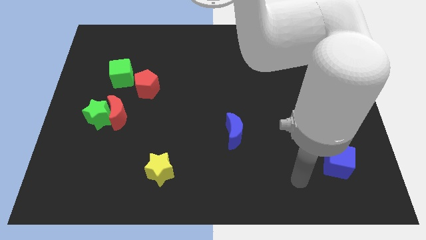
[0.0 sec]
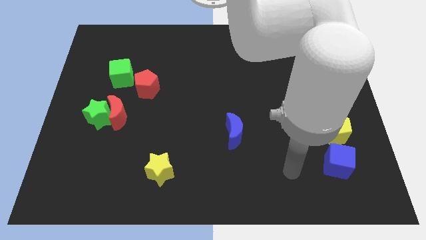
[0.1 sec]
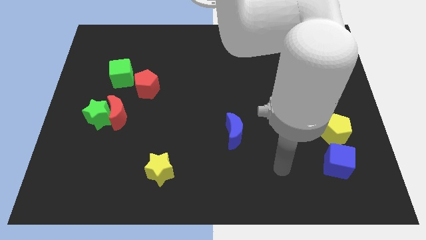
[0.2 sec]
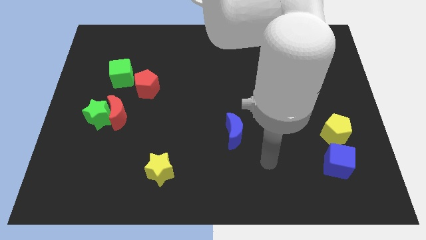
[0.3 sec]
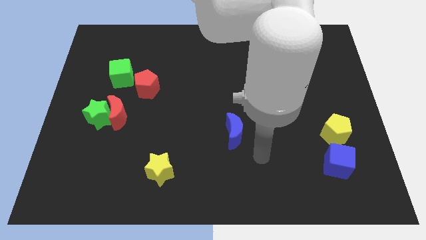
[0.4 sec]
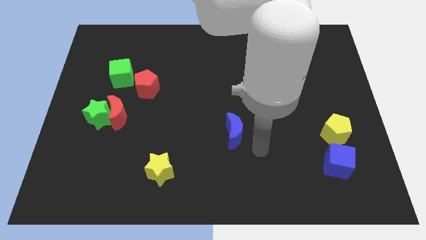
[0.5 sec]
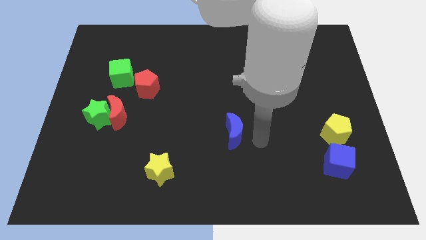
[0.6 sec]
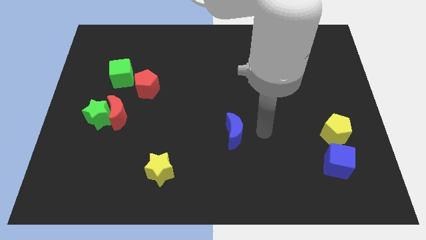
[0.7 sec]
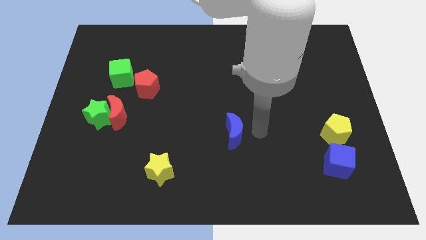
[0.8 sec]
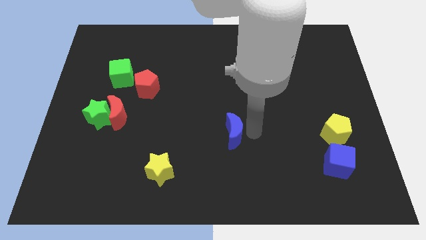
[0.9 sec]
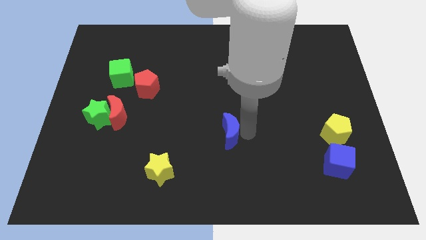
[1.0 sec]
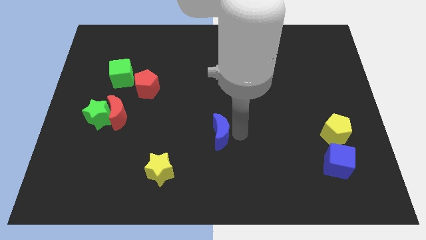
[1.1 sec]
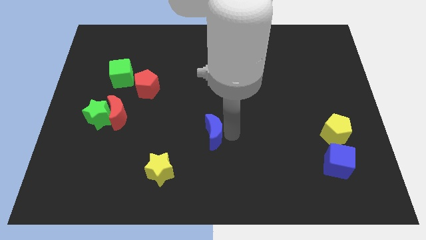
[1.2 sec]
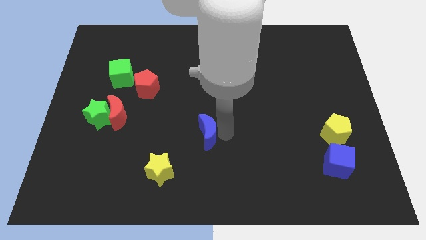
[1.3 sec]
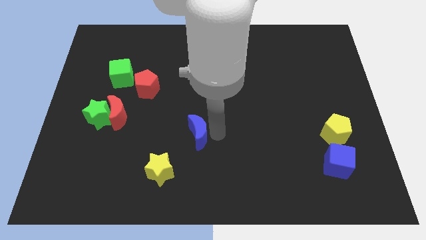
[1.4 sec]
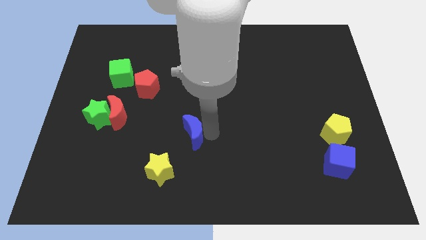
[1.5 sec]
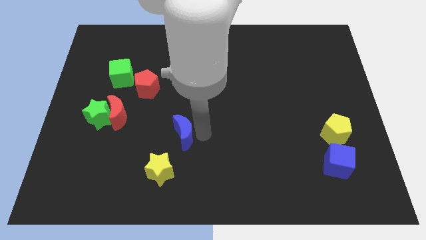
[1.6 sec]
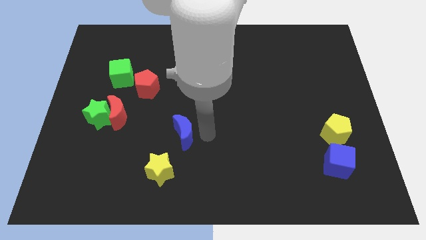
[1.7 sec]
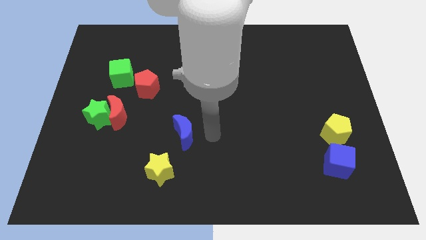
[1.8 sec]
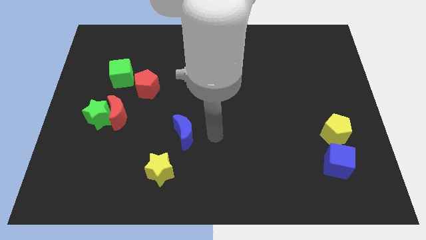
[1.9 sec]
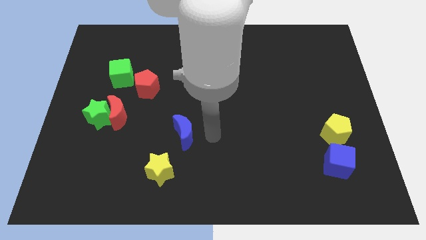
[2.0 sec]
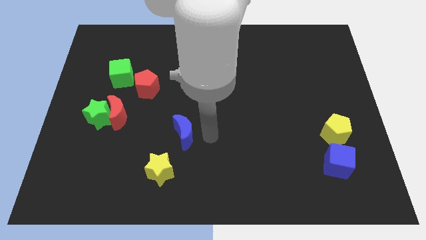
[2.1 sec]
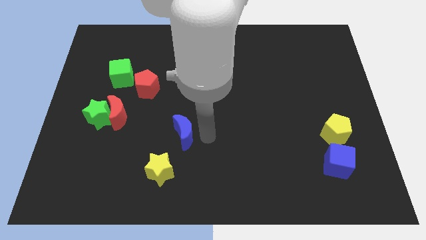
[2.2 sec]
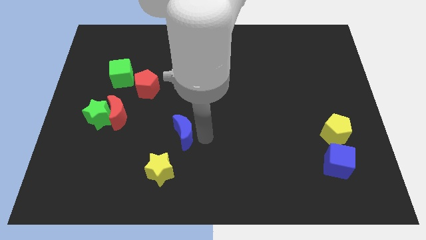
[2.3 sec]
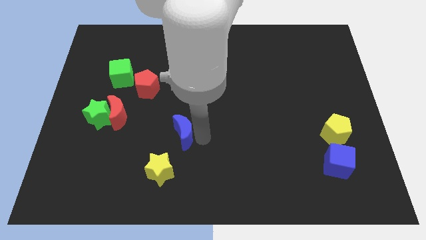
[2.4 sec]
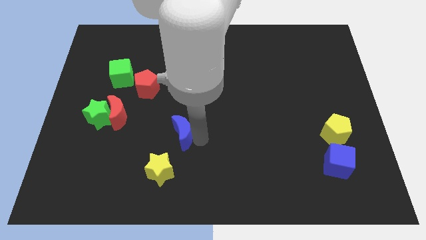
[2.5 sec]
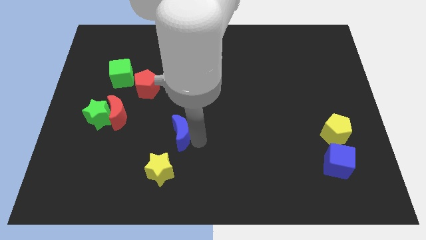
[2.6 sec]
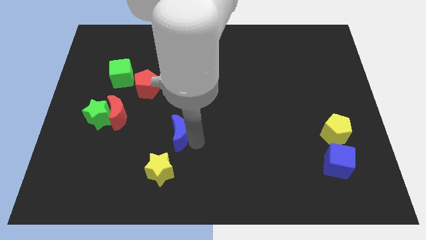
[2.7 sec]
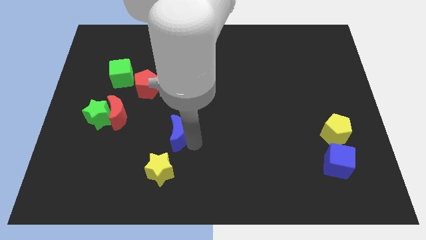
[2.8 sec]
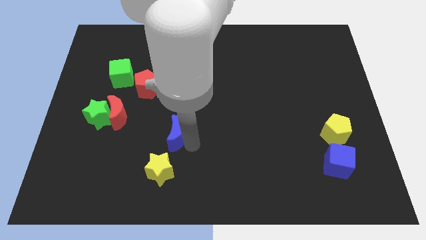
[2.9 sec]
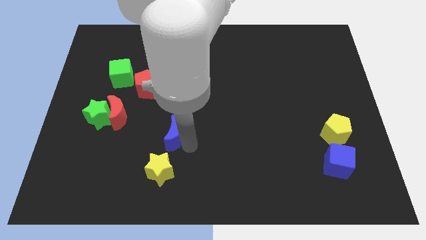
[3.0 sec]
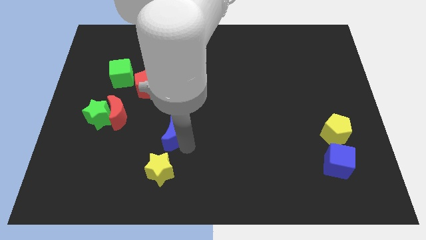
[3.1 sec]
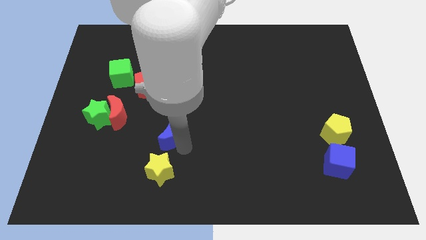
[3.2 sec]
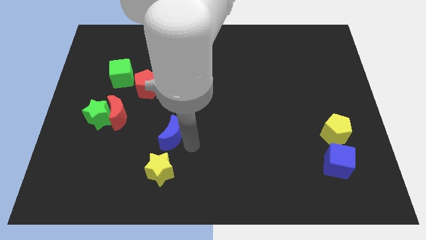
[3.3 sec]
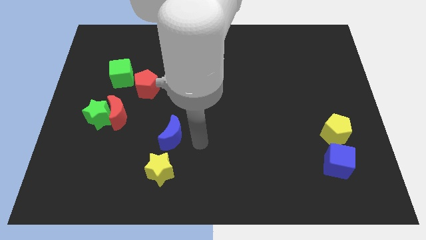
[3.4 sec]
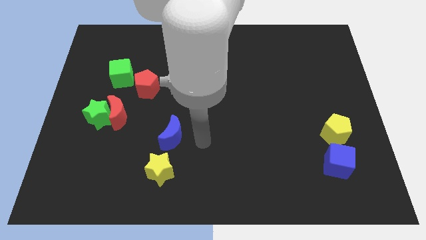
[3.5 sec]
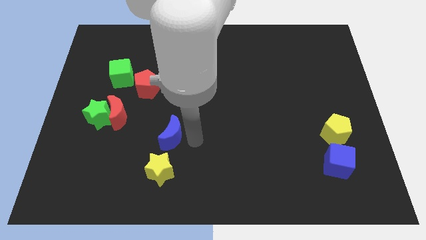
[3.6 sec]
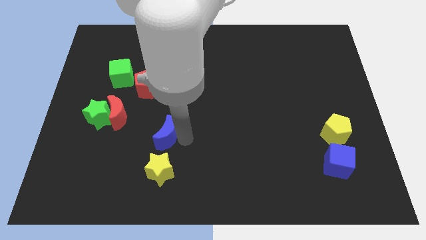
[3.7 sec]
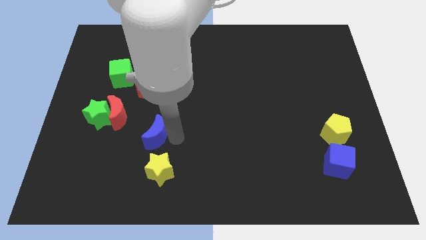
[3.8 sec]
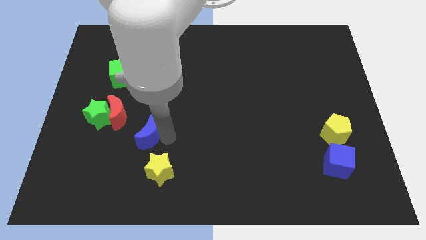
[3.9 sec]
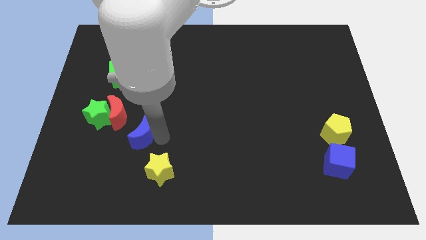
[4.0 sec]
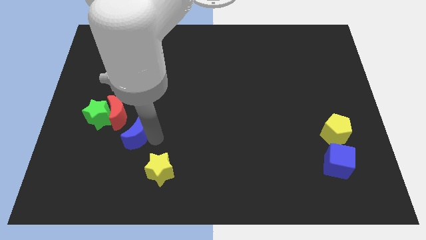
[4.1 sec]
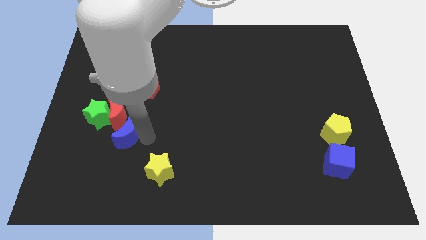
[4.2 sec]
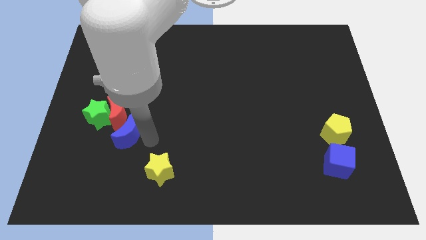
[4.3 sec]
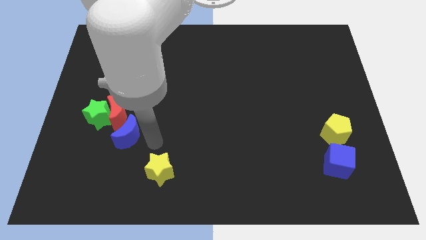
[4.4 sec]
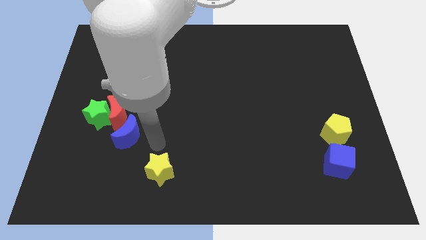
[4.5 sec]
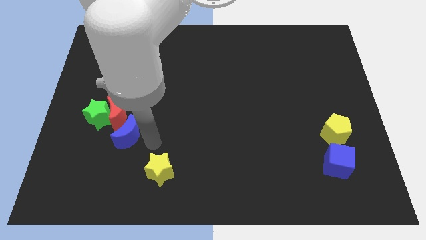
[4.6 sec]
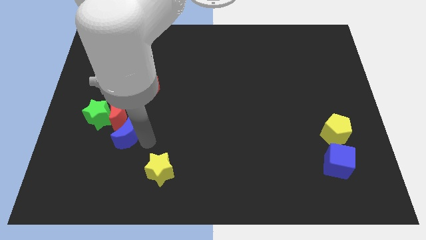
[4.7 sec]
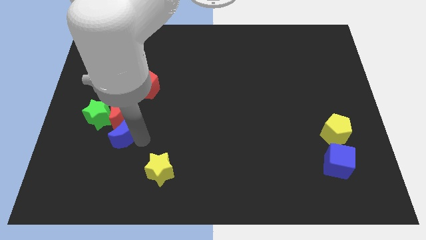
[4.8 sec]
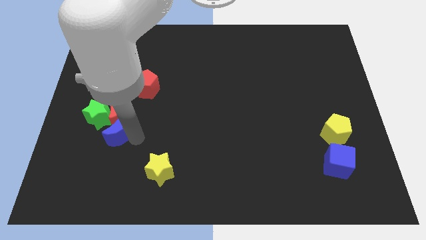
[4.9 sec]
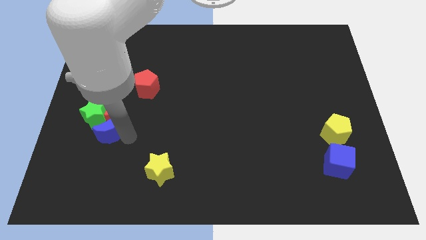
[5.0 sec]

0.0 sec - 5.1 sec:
put the blue moon next to the green star

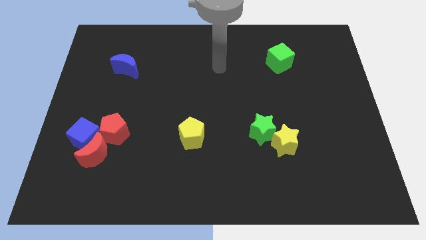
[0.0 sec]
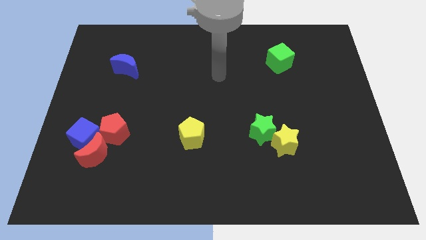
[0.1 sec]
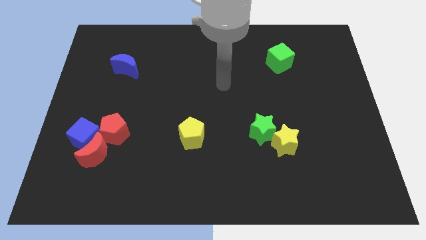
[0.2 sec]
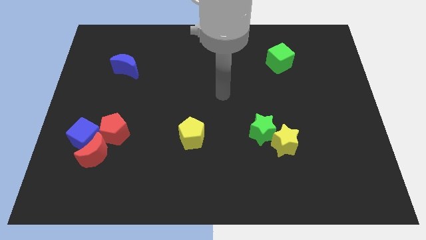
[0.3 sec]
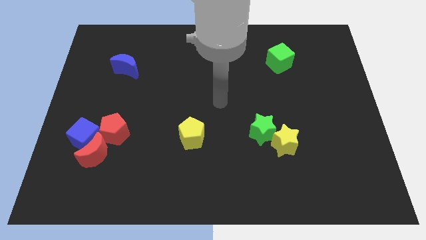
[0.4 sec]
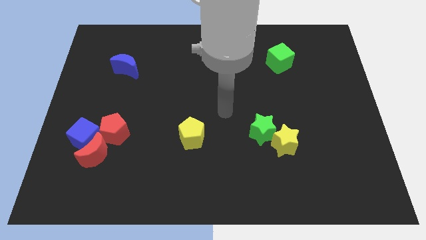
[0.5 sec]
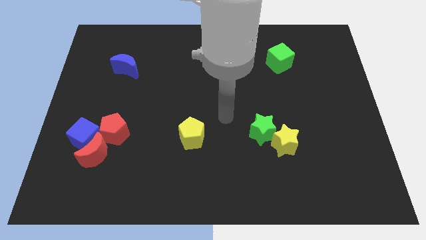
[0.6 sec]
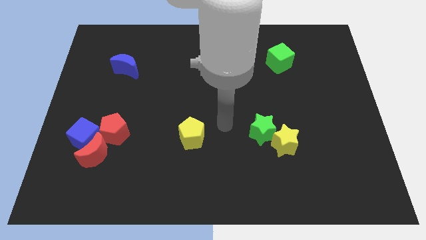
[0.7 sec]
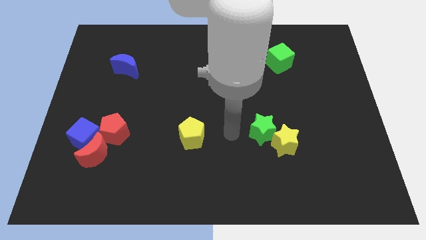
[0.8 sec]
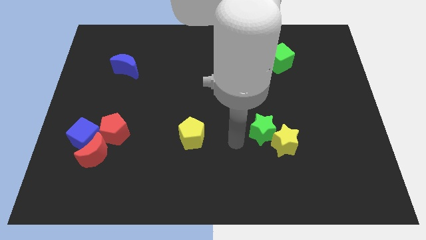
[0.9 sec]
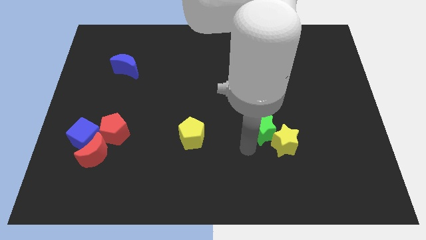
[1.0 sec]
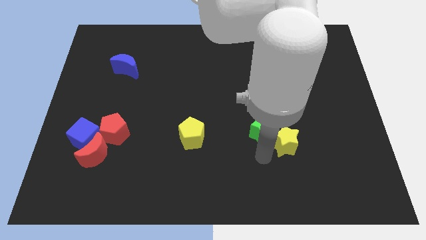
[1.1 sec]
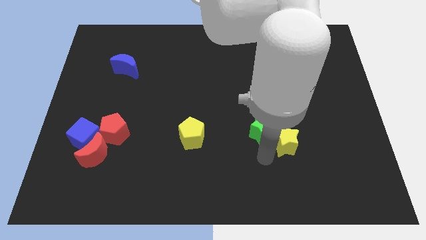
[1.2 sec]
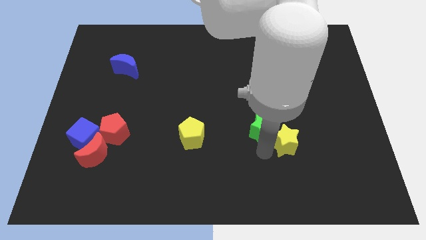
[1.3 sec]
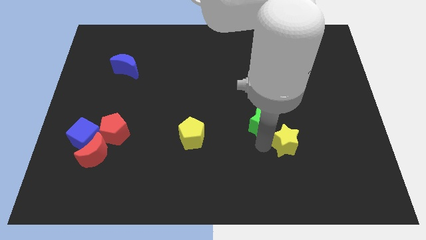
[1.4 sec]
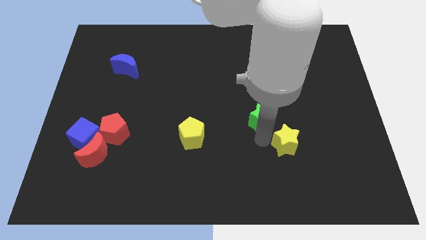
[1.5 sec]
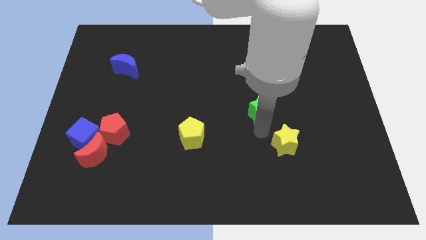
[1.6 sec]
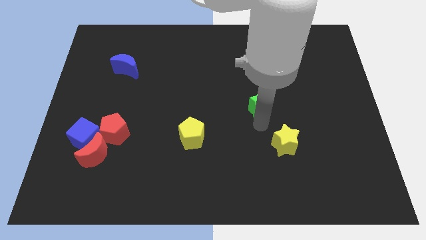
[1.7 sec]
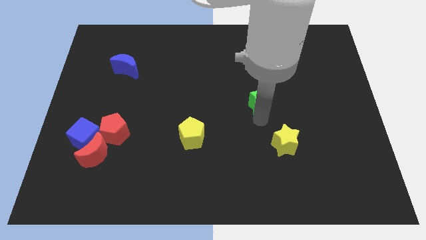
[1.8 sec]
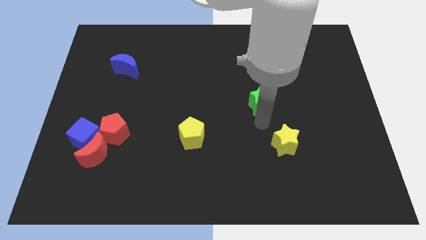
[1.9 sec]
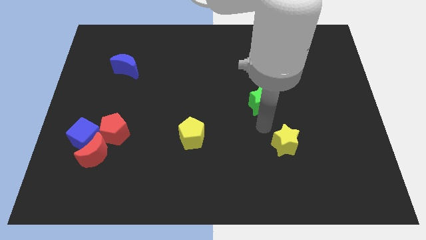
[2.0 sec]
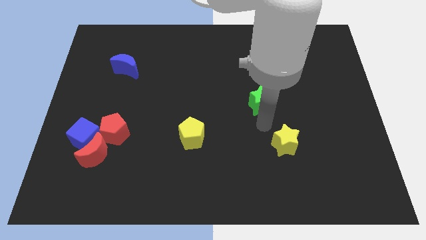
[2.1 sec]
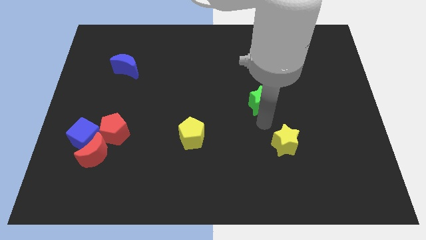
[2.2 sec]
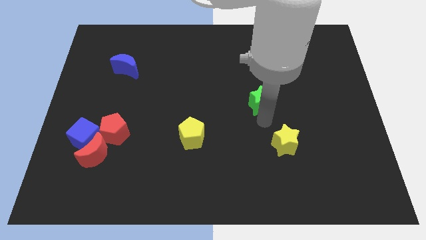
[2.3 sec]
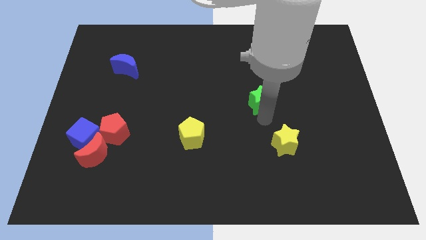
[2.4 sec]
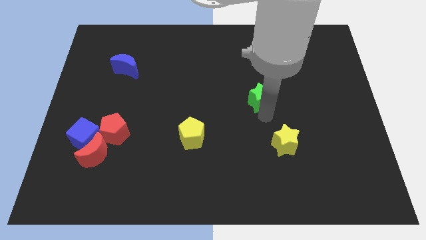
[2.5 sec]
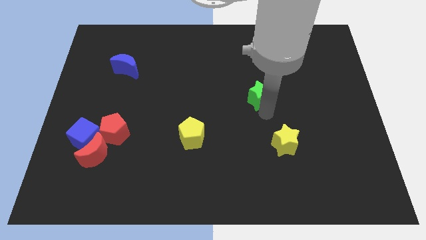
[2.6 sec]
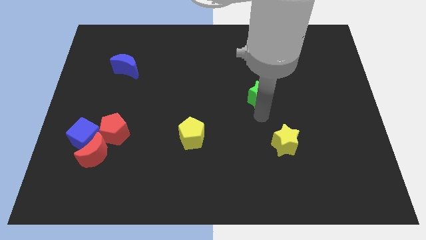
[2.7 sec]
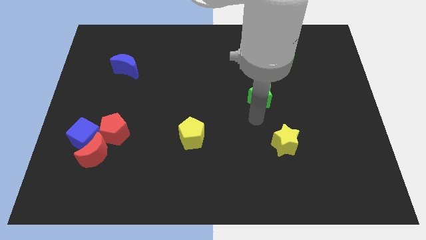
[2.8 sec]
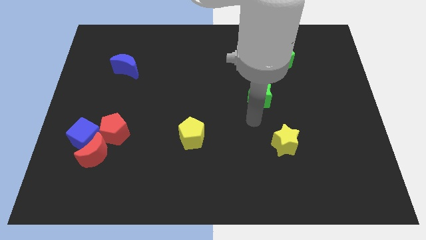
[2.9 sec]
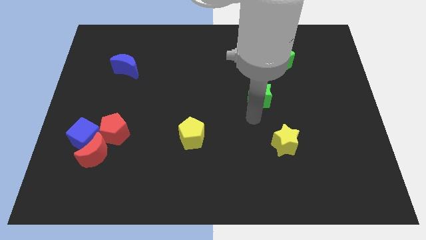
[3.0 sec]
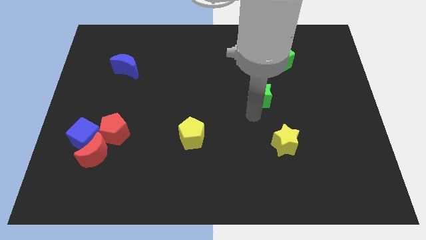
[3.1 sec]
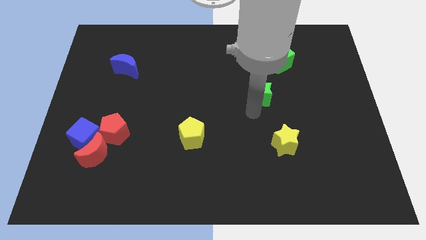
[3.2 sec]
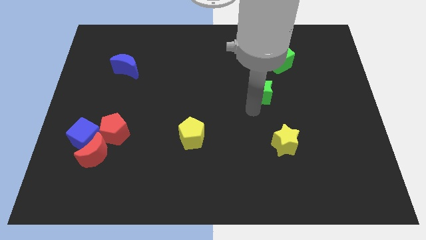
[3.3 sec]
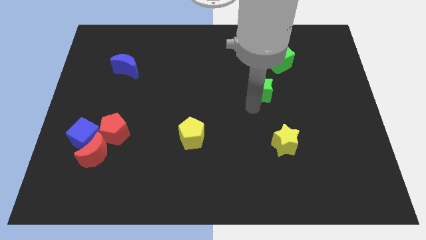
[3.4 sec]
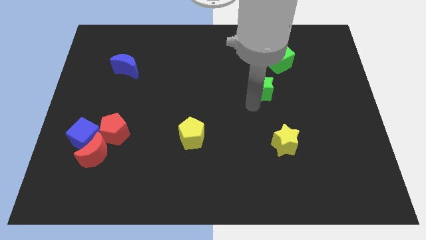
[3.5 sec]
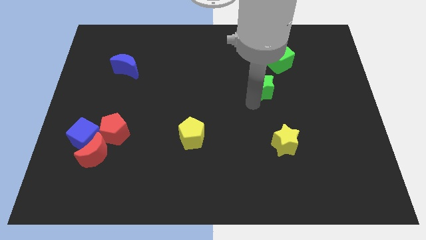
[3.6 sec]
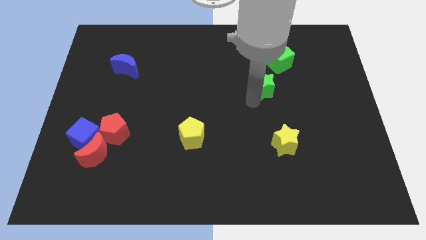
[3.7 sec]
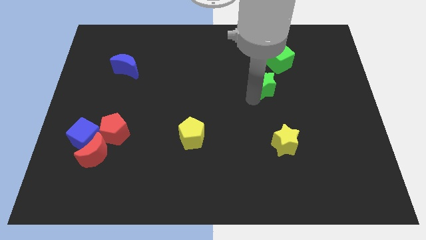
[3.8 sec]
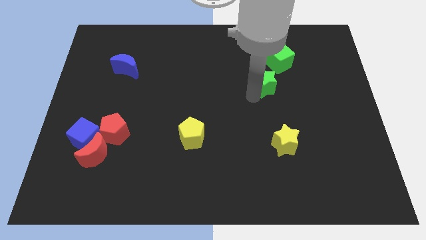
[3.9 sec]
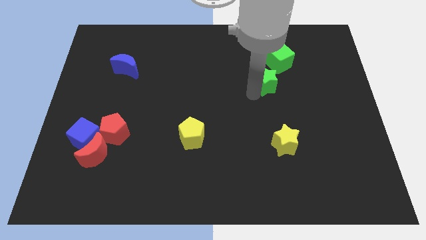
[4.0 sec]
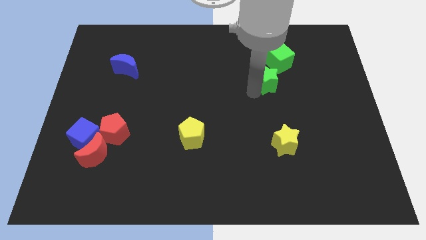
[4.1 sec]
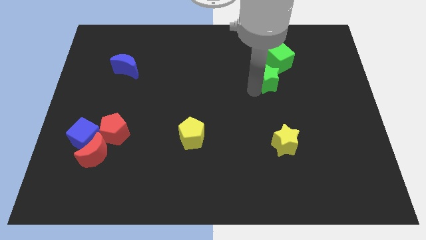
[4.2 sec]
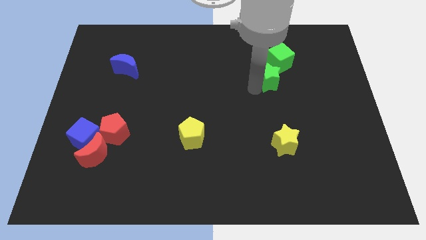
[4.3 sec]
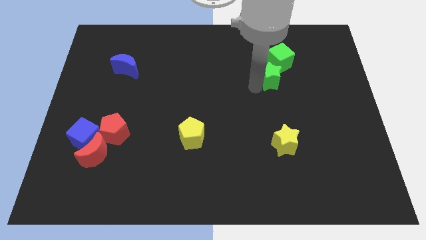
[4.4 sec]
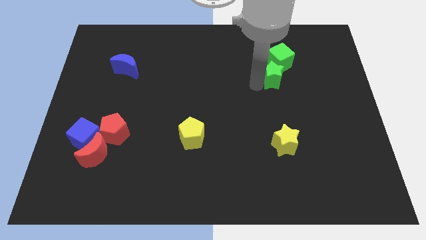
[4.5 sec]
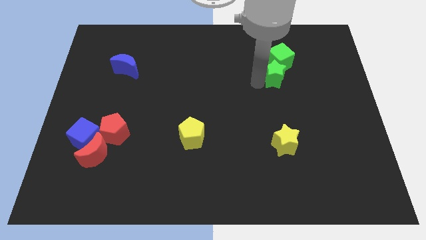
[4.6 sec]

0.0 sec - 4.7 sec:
push the green star to the green cube
